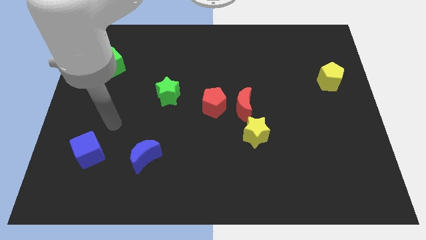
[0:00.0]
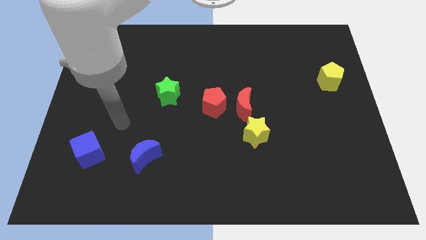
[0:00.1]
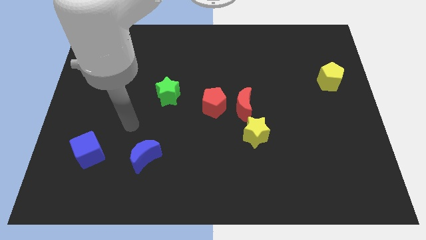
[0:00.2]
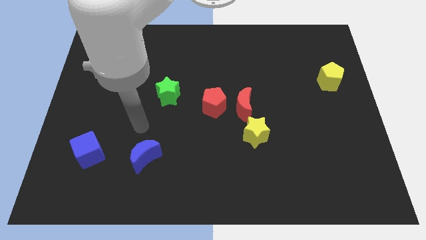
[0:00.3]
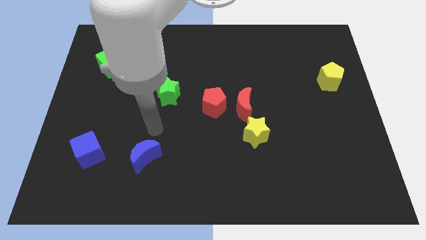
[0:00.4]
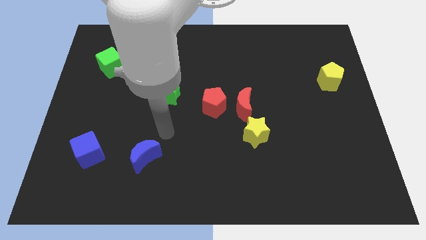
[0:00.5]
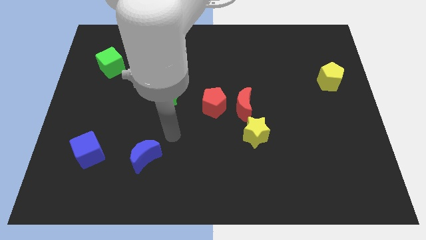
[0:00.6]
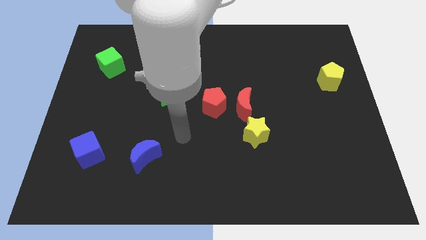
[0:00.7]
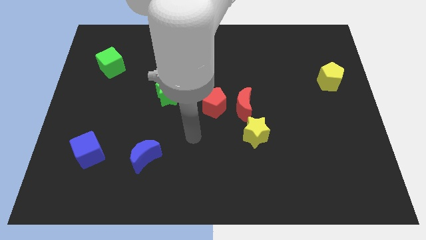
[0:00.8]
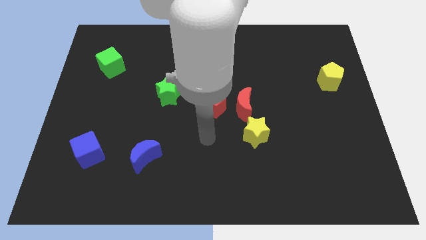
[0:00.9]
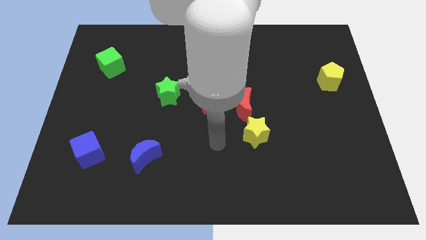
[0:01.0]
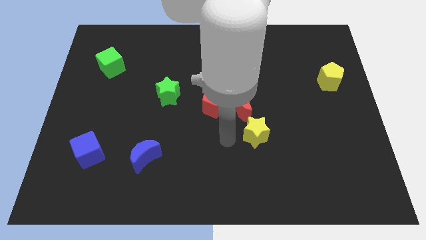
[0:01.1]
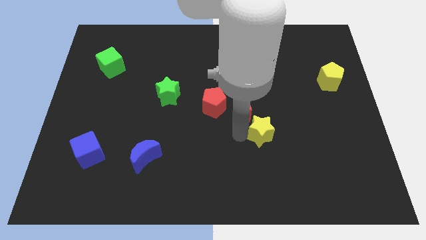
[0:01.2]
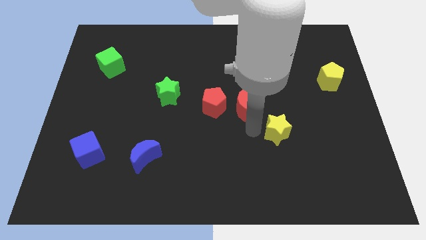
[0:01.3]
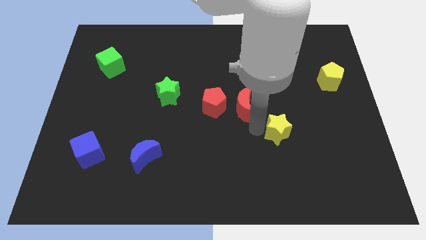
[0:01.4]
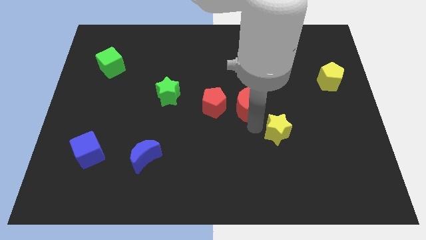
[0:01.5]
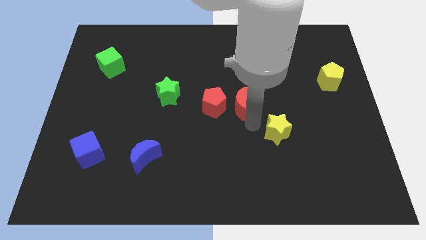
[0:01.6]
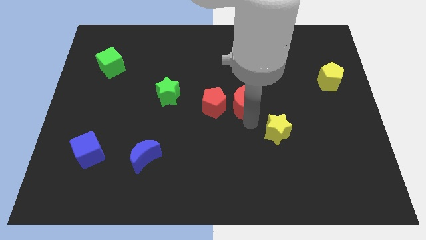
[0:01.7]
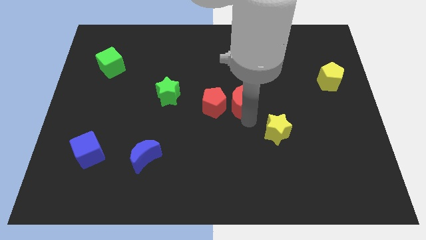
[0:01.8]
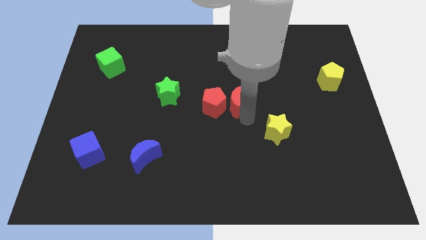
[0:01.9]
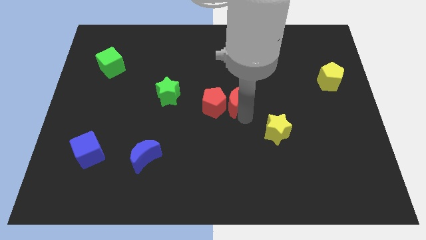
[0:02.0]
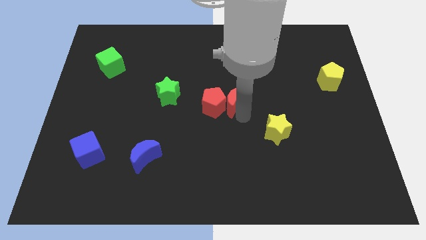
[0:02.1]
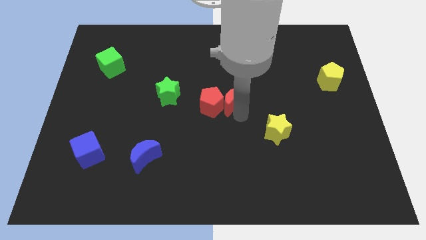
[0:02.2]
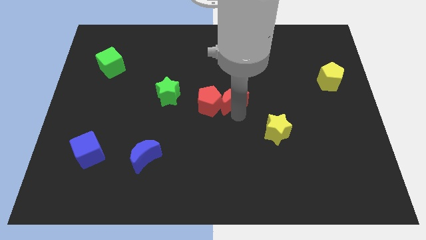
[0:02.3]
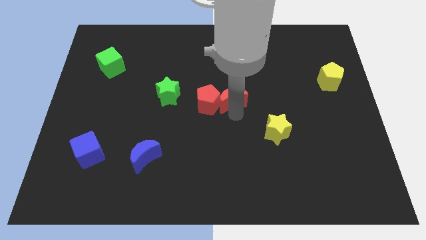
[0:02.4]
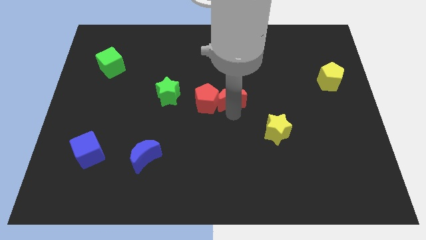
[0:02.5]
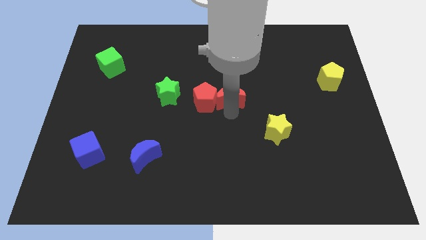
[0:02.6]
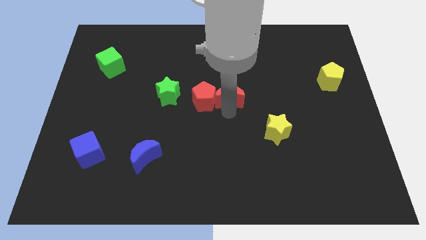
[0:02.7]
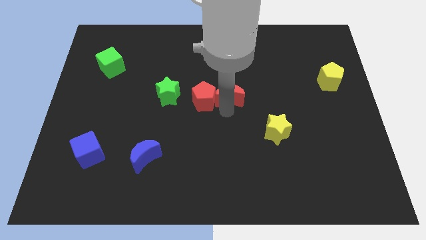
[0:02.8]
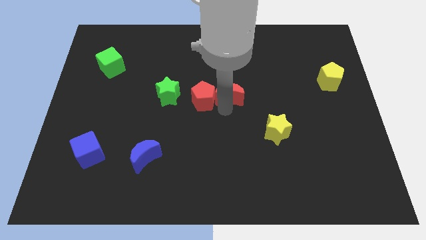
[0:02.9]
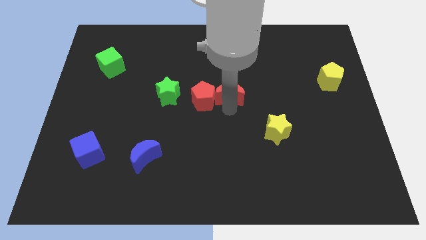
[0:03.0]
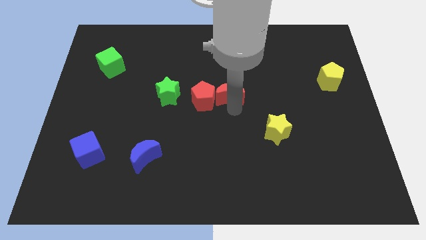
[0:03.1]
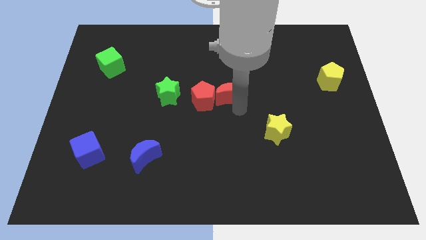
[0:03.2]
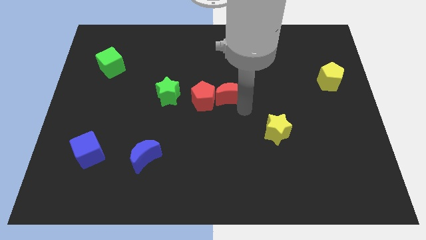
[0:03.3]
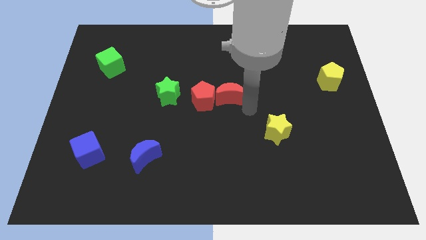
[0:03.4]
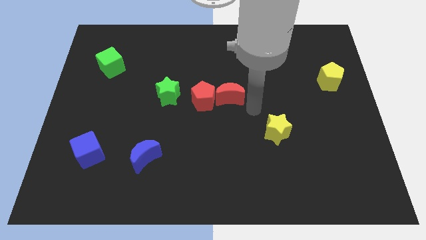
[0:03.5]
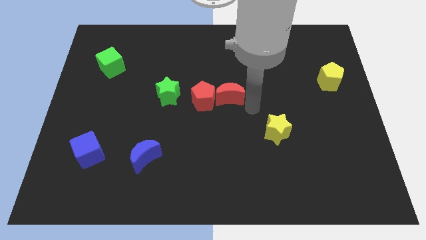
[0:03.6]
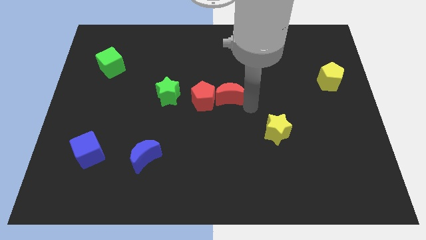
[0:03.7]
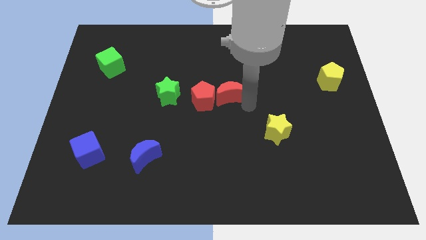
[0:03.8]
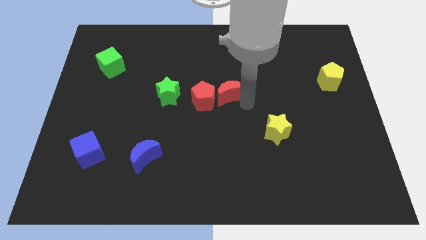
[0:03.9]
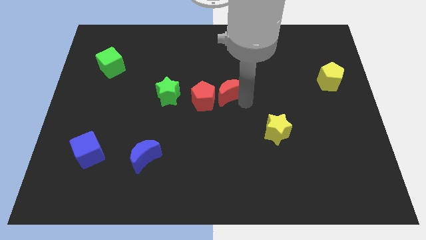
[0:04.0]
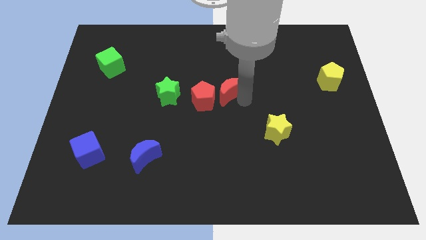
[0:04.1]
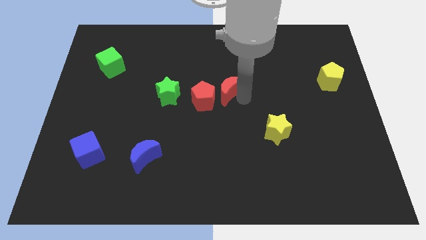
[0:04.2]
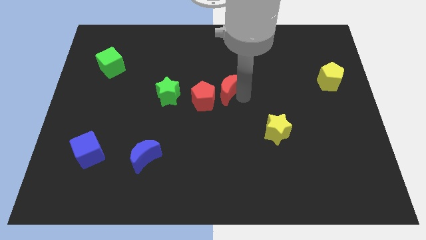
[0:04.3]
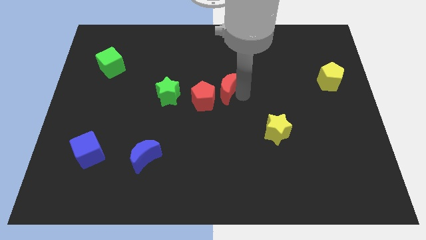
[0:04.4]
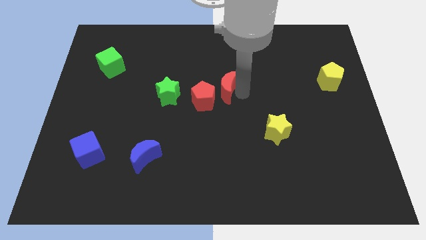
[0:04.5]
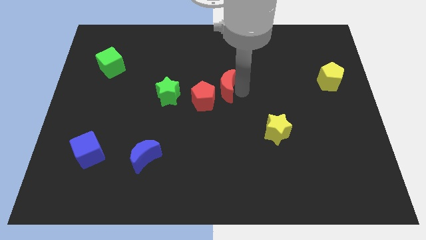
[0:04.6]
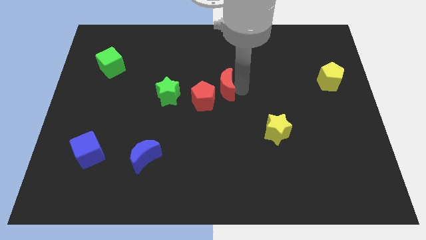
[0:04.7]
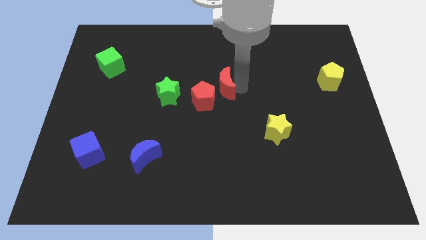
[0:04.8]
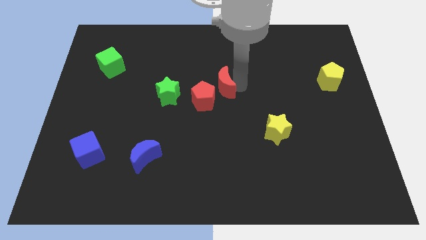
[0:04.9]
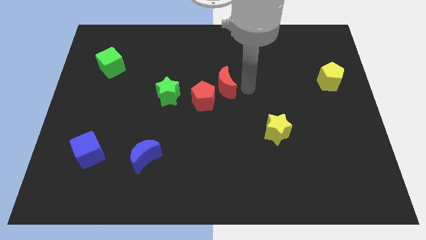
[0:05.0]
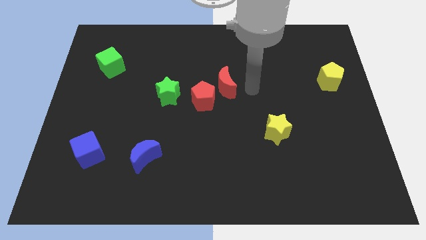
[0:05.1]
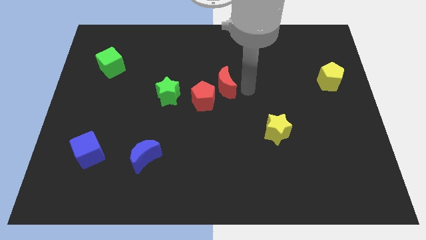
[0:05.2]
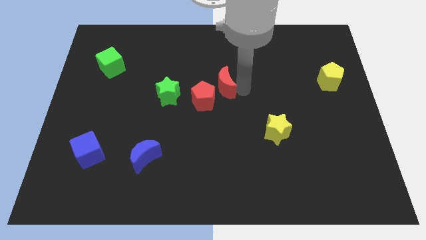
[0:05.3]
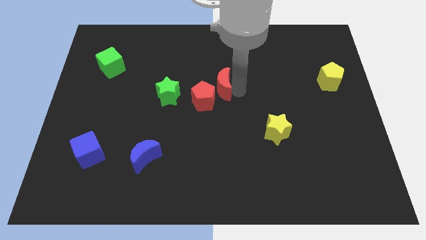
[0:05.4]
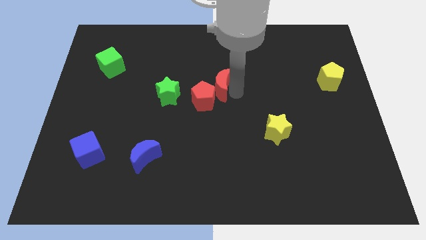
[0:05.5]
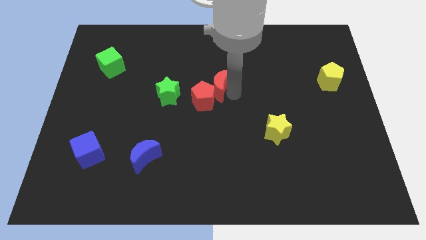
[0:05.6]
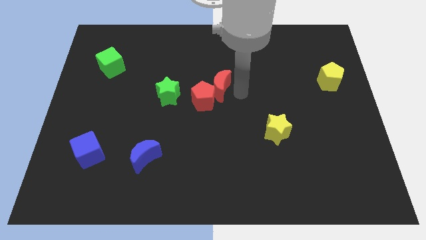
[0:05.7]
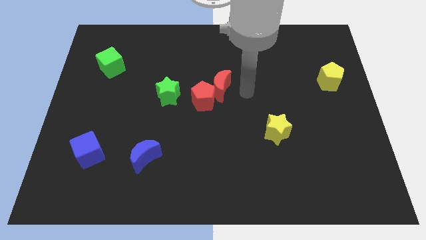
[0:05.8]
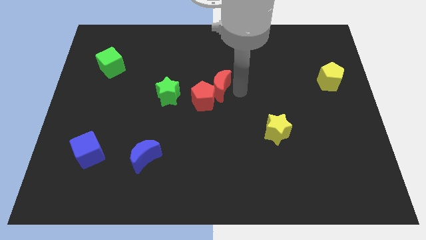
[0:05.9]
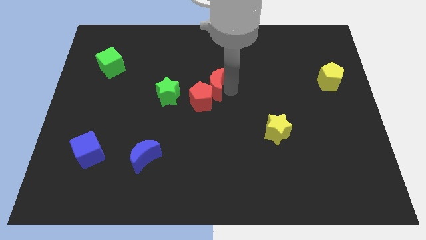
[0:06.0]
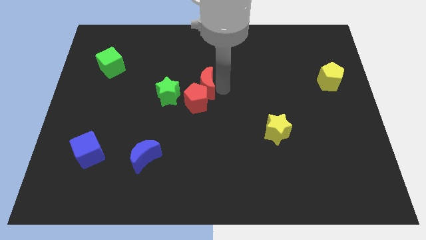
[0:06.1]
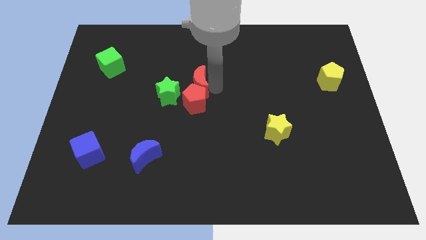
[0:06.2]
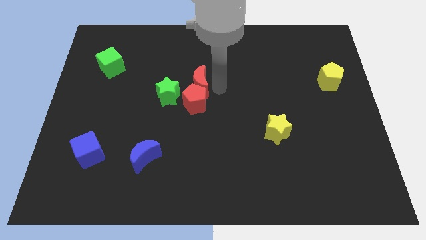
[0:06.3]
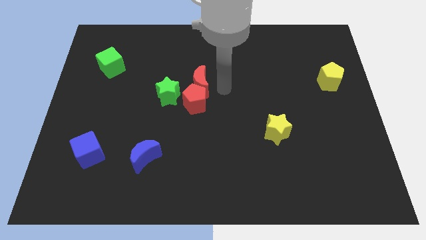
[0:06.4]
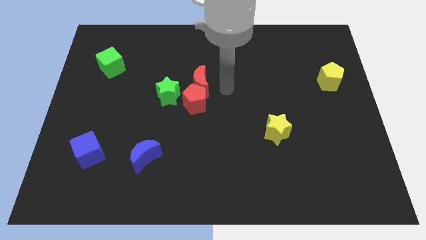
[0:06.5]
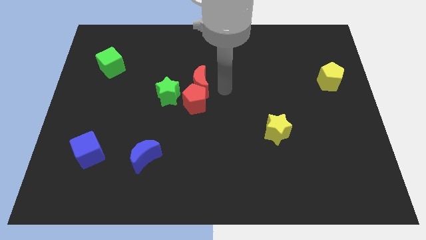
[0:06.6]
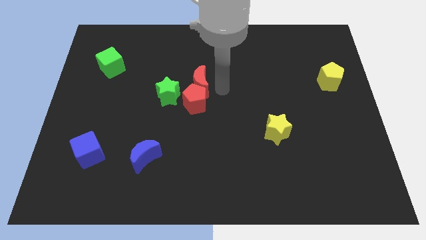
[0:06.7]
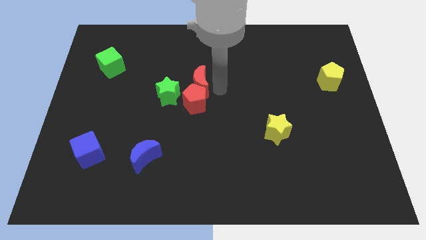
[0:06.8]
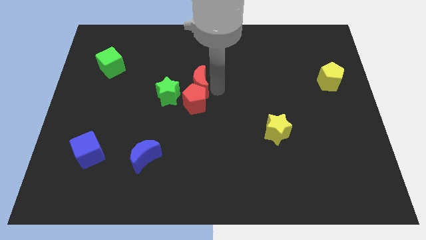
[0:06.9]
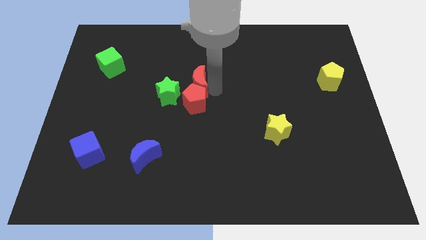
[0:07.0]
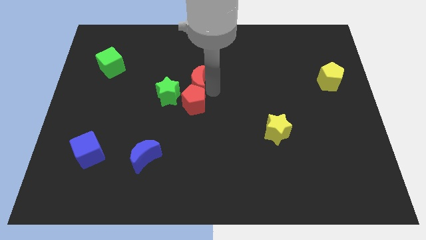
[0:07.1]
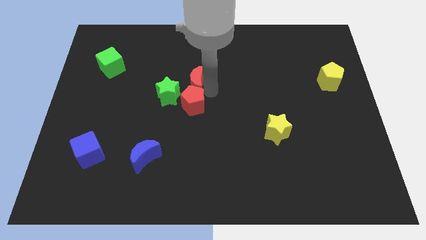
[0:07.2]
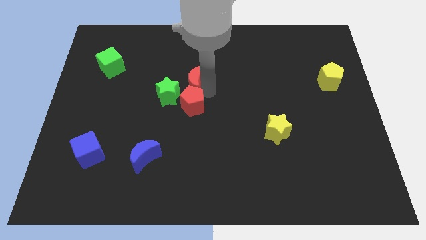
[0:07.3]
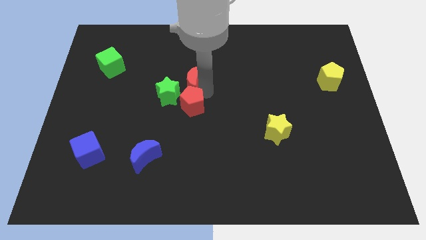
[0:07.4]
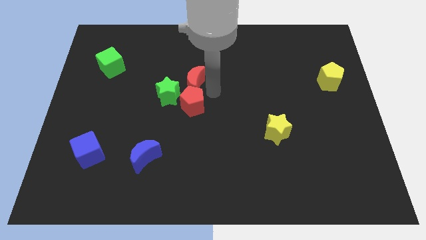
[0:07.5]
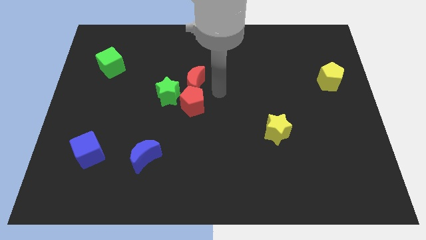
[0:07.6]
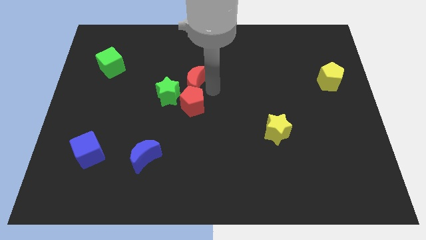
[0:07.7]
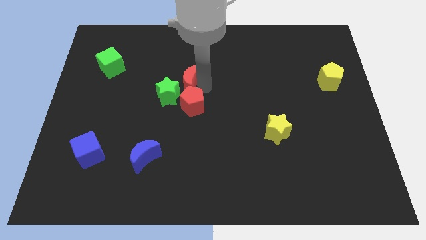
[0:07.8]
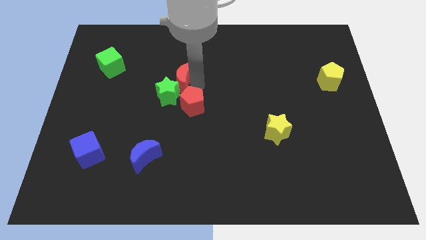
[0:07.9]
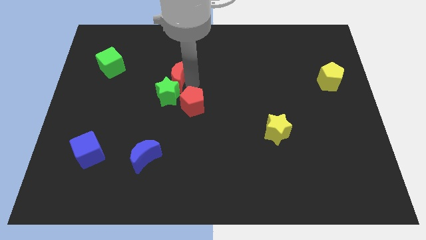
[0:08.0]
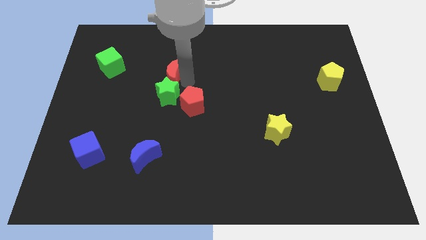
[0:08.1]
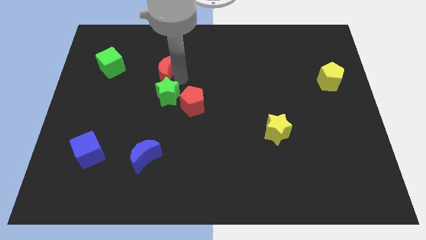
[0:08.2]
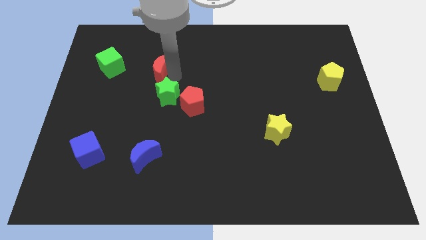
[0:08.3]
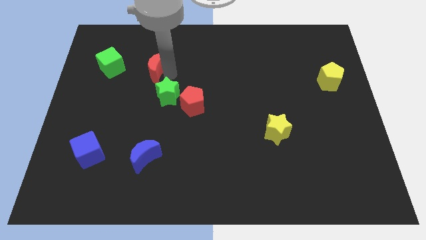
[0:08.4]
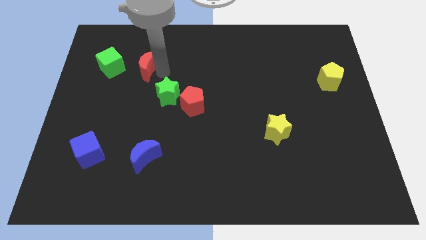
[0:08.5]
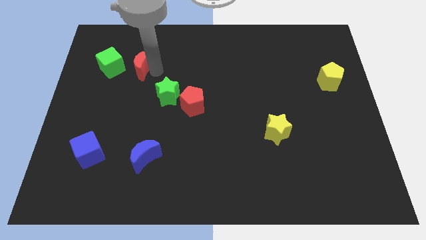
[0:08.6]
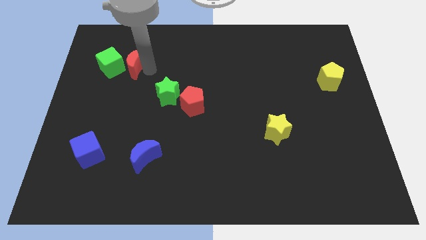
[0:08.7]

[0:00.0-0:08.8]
slide the red moon close to the green cube
